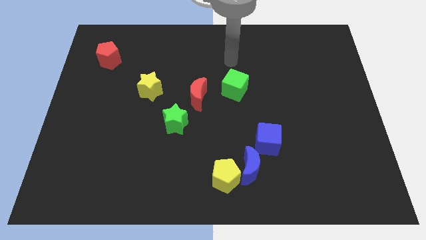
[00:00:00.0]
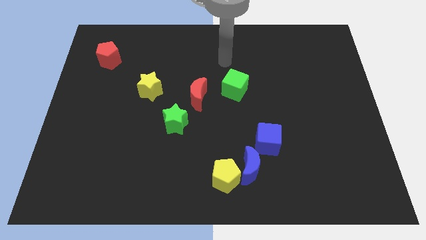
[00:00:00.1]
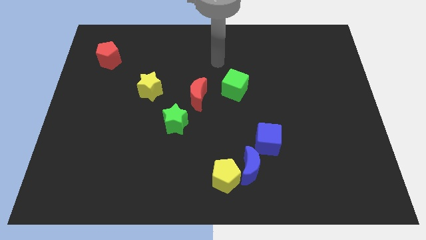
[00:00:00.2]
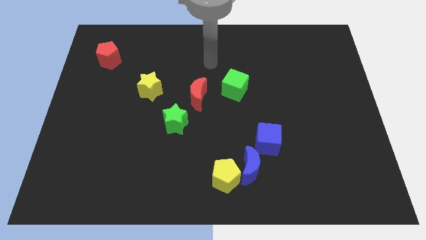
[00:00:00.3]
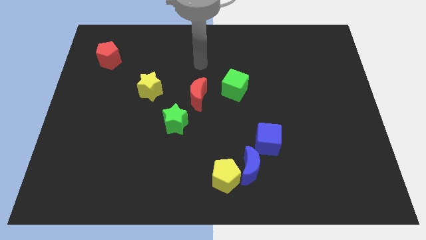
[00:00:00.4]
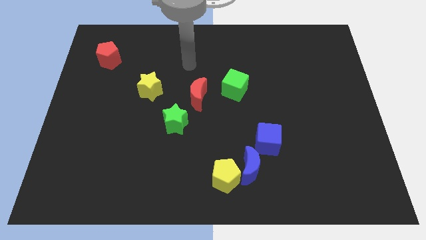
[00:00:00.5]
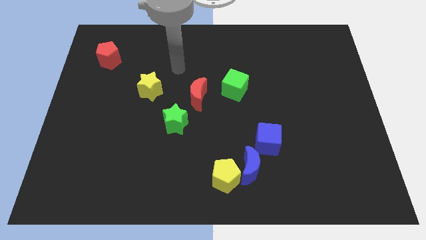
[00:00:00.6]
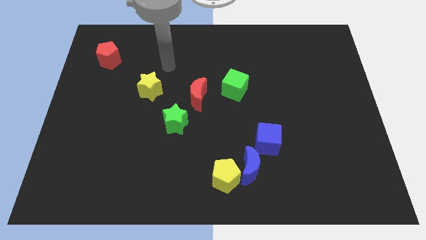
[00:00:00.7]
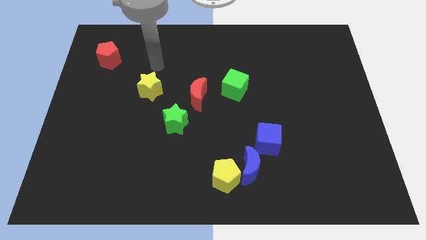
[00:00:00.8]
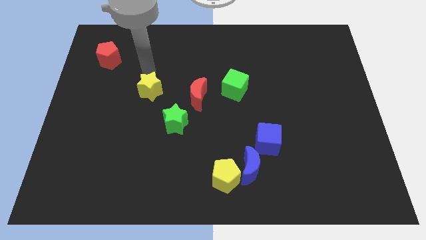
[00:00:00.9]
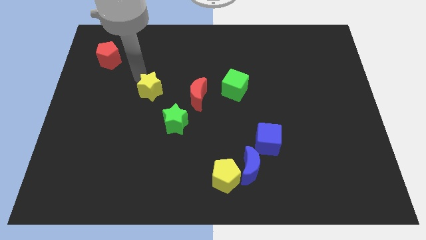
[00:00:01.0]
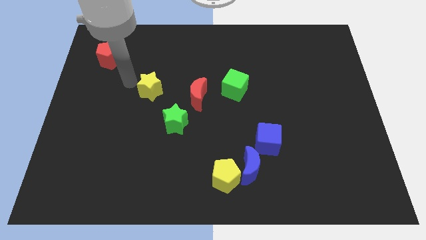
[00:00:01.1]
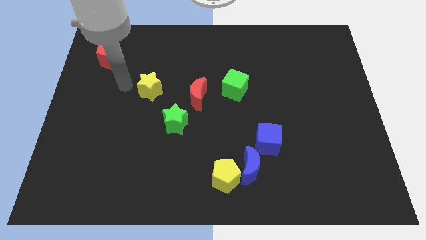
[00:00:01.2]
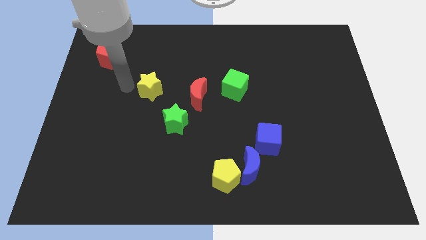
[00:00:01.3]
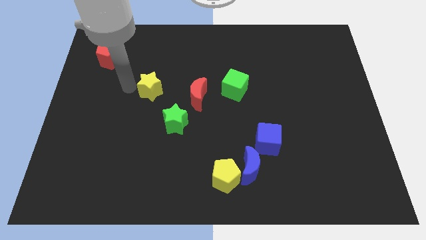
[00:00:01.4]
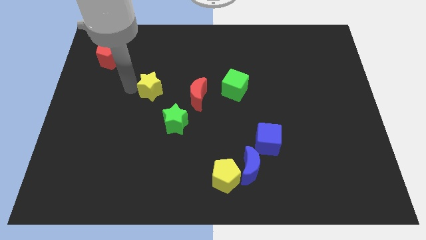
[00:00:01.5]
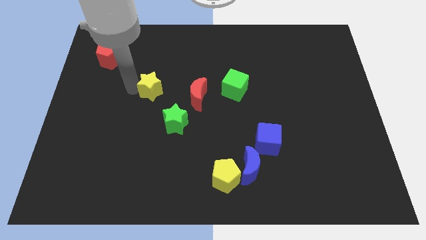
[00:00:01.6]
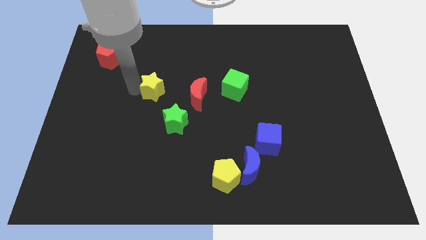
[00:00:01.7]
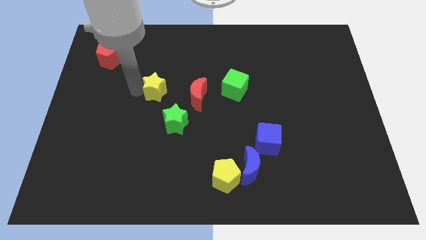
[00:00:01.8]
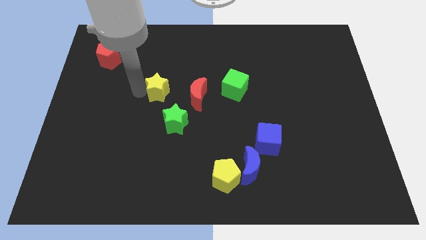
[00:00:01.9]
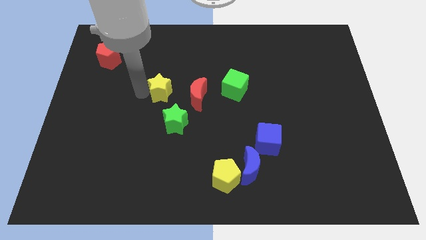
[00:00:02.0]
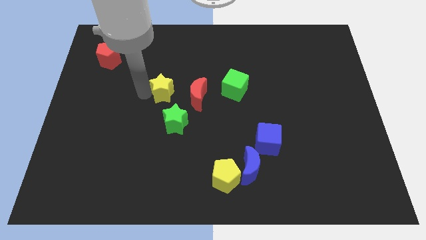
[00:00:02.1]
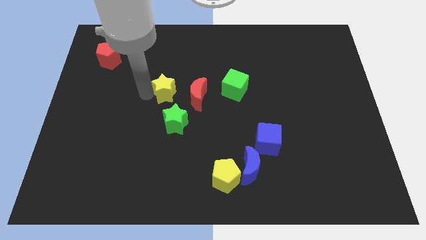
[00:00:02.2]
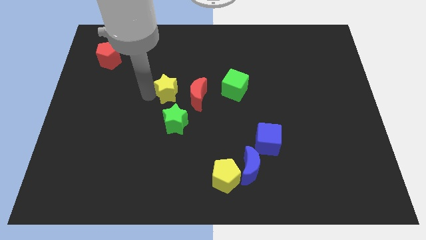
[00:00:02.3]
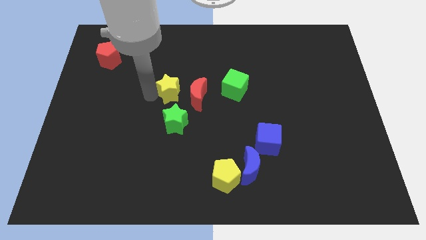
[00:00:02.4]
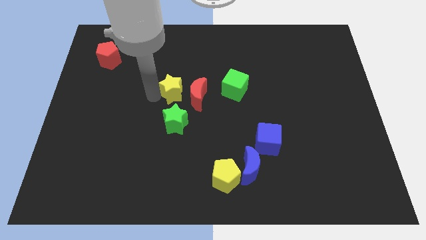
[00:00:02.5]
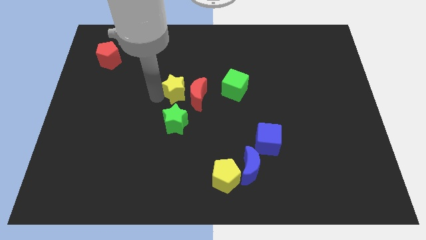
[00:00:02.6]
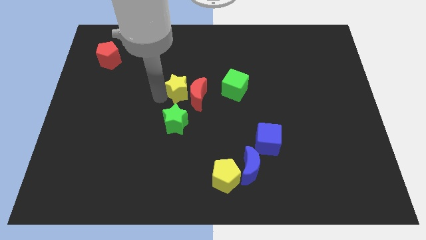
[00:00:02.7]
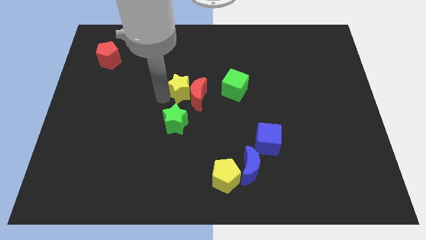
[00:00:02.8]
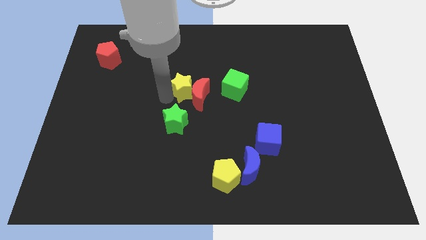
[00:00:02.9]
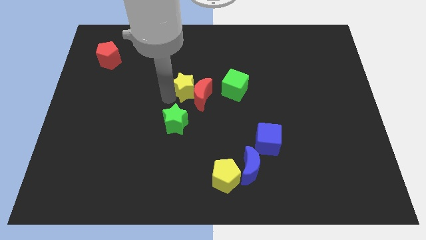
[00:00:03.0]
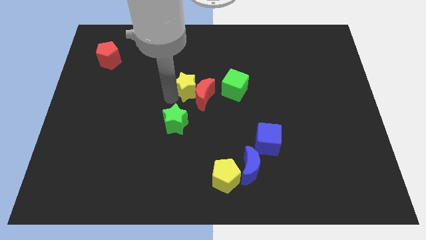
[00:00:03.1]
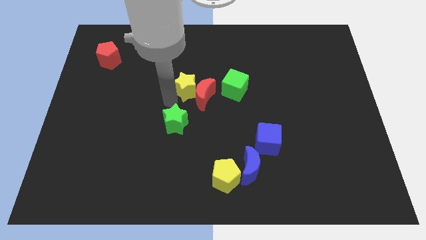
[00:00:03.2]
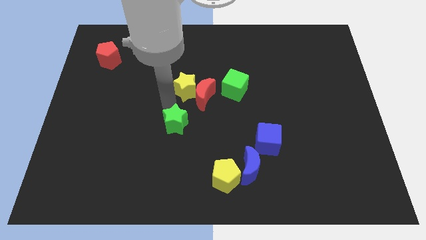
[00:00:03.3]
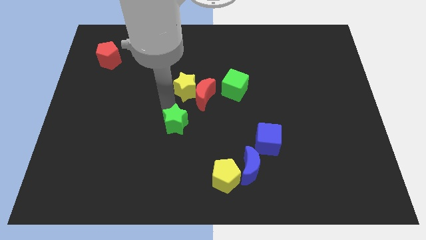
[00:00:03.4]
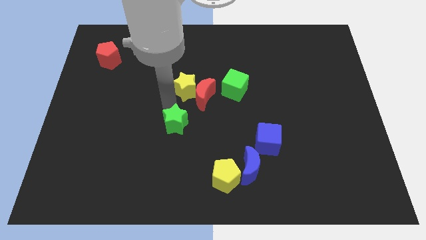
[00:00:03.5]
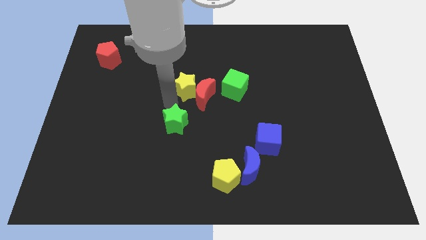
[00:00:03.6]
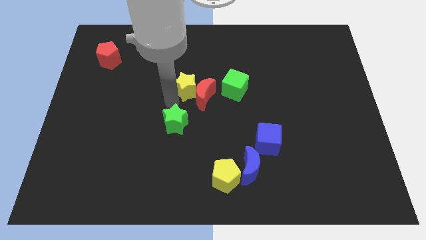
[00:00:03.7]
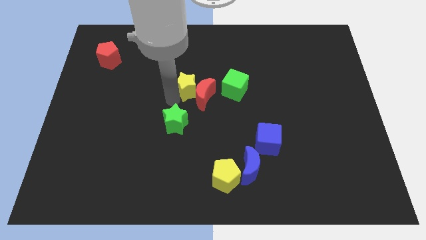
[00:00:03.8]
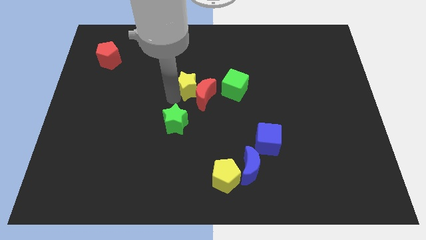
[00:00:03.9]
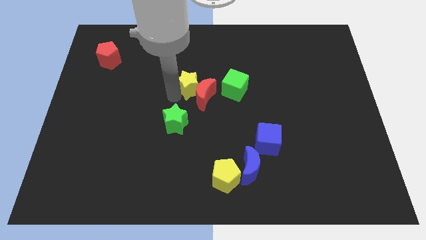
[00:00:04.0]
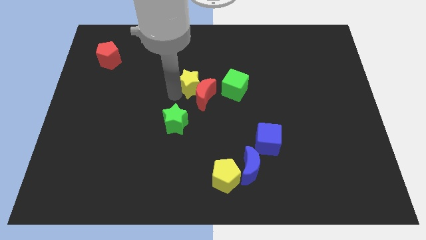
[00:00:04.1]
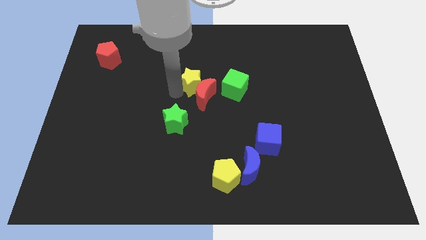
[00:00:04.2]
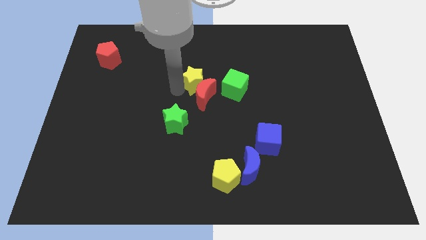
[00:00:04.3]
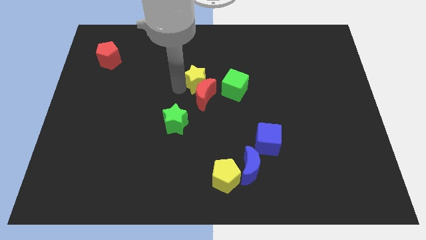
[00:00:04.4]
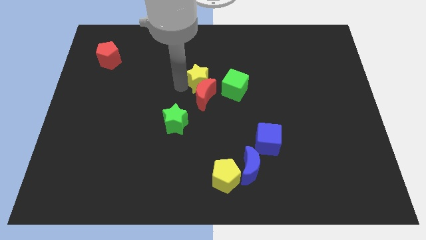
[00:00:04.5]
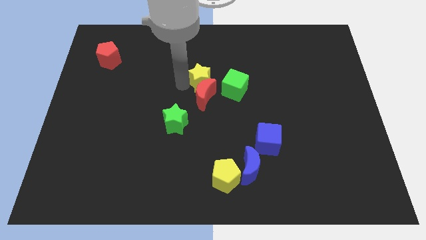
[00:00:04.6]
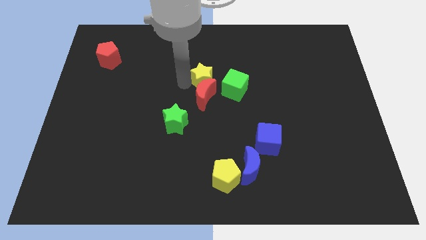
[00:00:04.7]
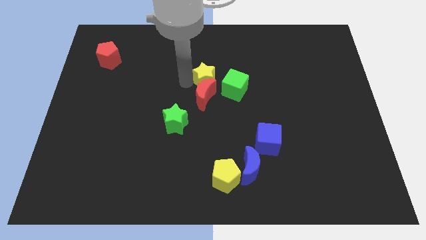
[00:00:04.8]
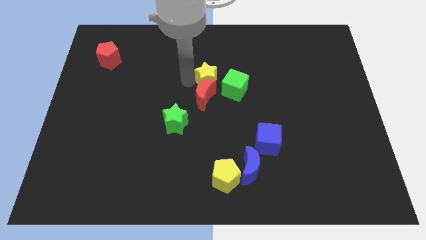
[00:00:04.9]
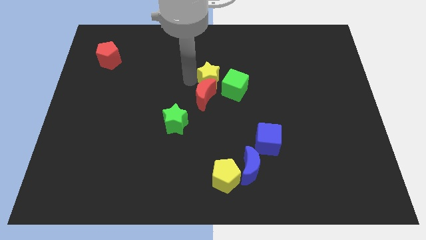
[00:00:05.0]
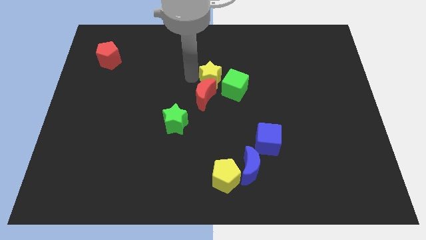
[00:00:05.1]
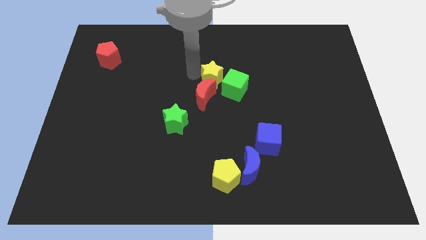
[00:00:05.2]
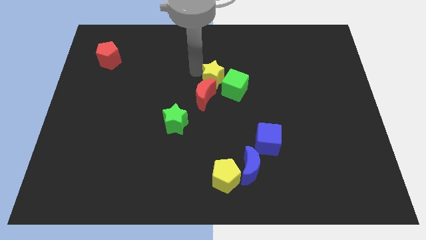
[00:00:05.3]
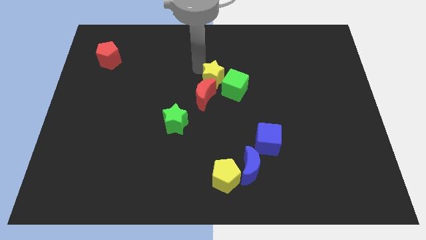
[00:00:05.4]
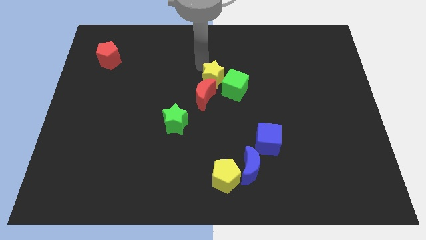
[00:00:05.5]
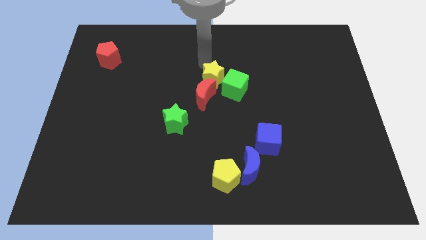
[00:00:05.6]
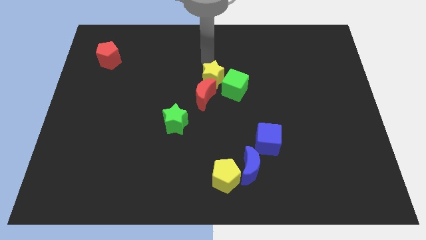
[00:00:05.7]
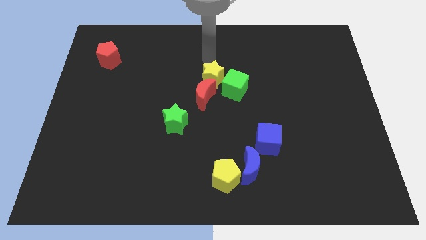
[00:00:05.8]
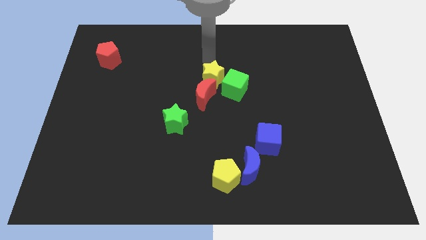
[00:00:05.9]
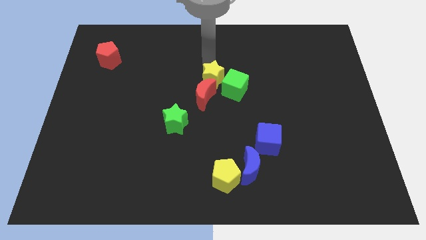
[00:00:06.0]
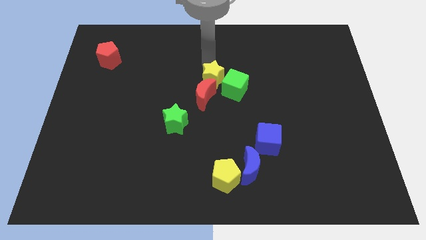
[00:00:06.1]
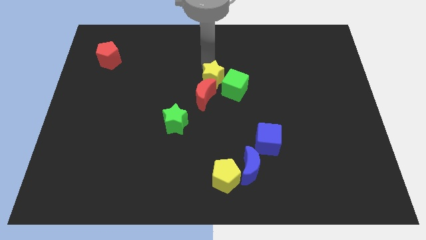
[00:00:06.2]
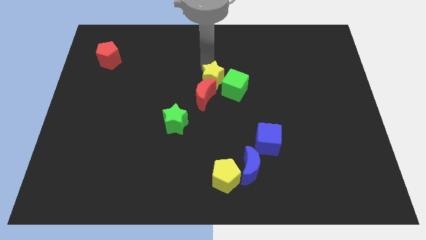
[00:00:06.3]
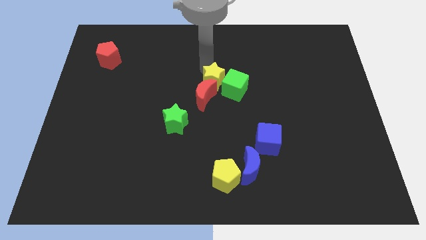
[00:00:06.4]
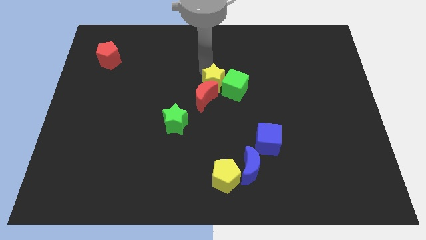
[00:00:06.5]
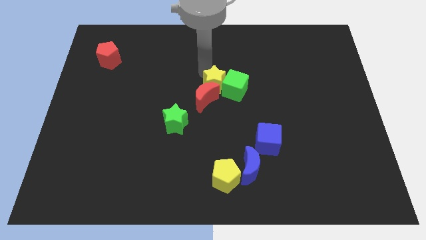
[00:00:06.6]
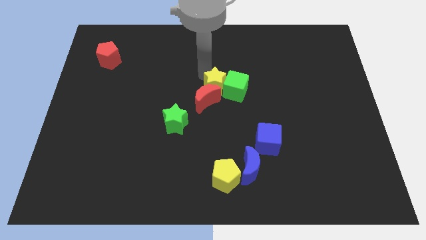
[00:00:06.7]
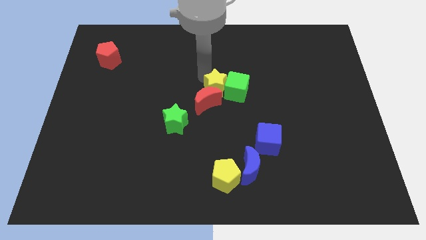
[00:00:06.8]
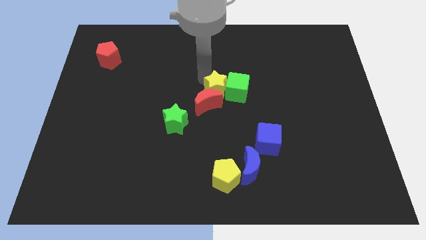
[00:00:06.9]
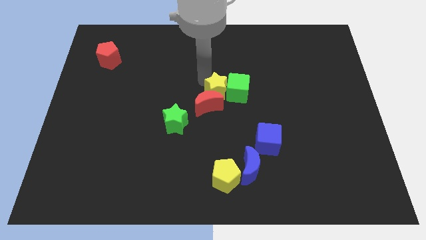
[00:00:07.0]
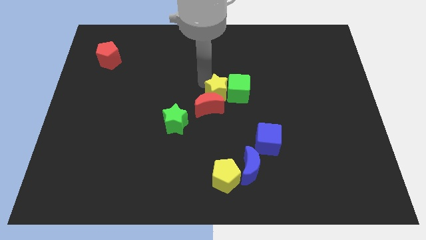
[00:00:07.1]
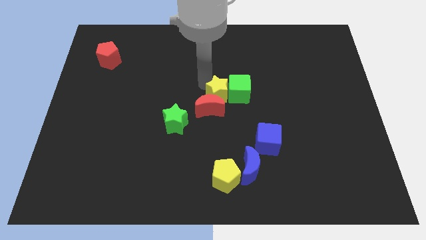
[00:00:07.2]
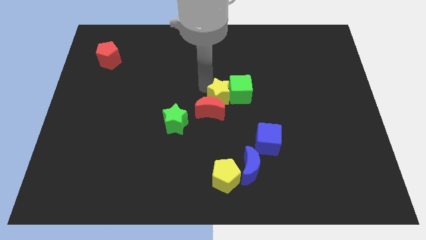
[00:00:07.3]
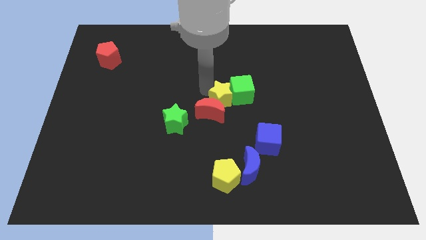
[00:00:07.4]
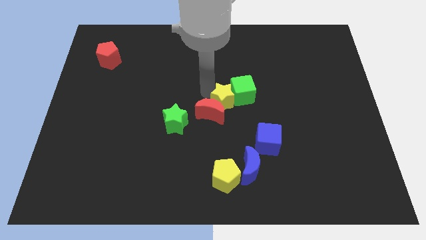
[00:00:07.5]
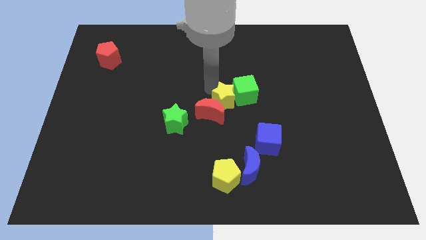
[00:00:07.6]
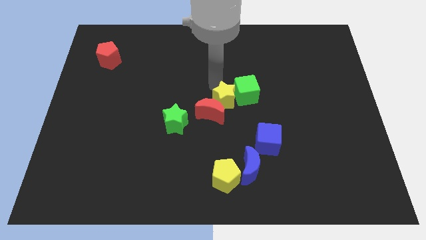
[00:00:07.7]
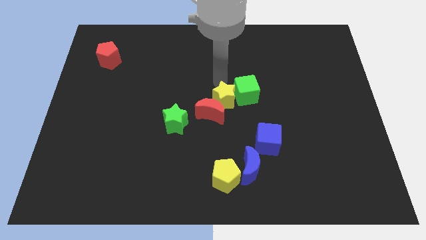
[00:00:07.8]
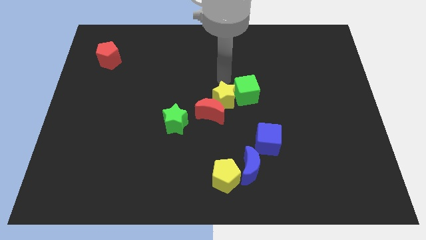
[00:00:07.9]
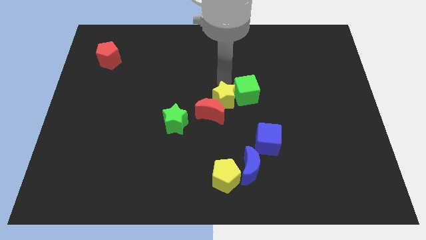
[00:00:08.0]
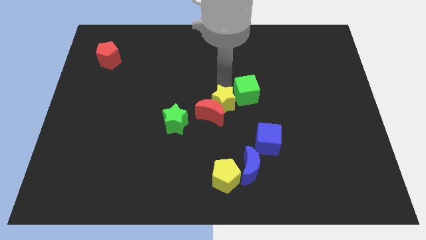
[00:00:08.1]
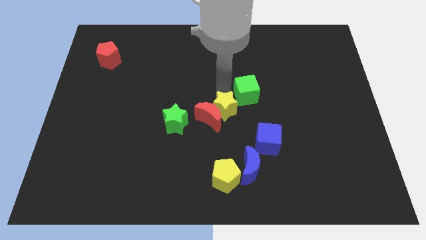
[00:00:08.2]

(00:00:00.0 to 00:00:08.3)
slide the yellow star to the right of the green star
